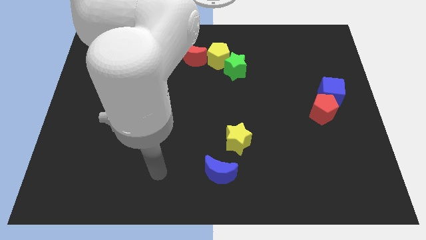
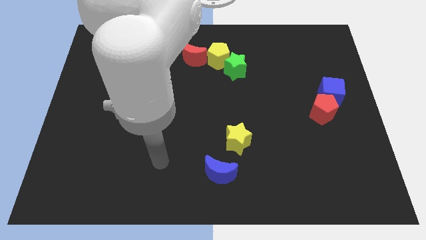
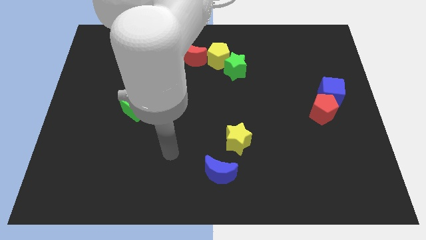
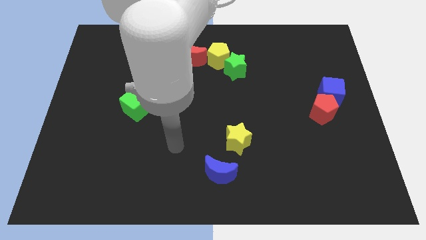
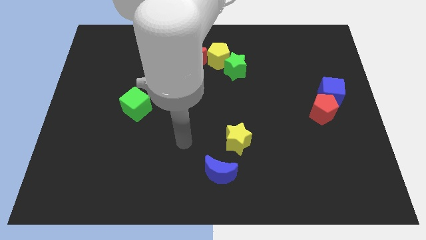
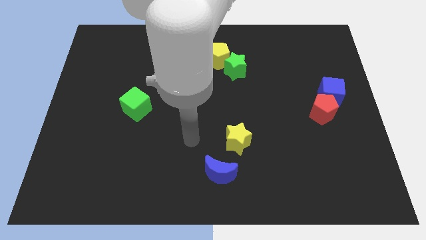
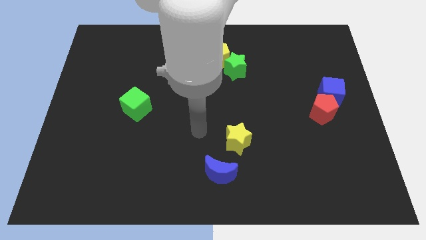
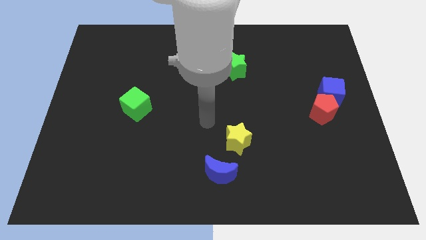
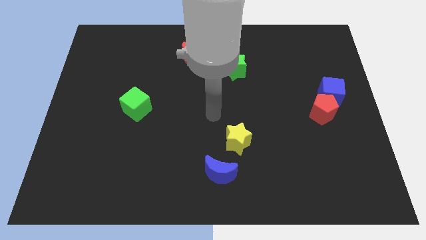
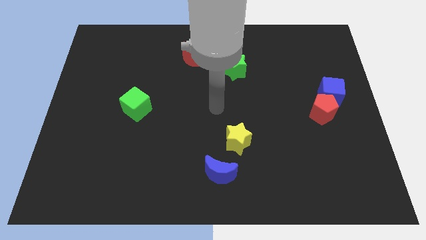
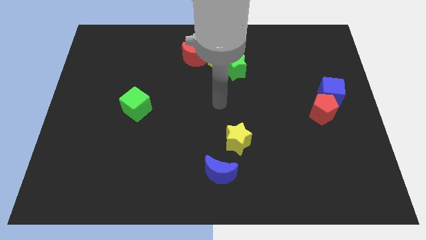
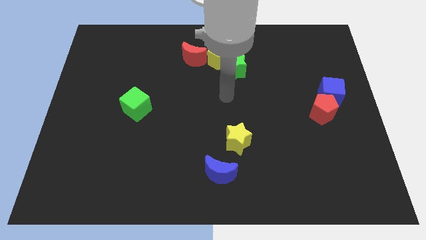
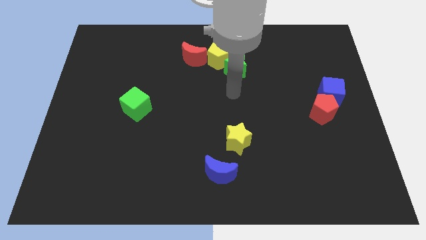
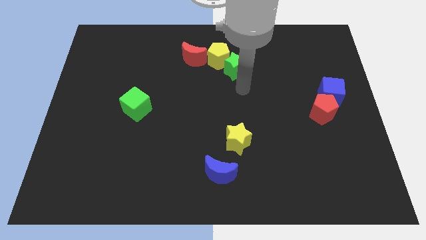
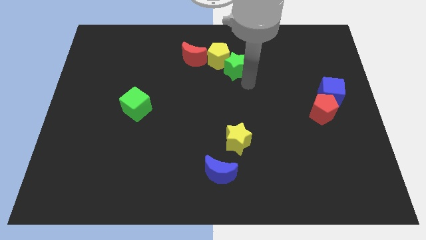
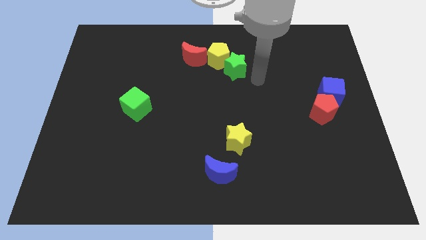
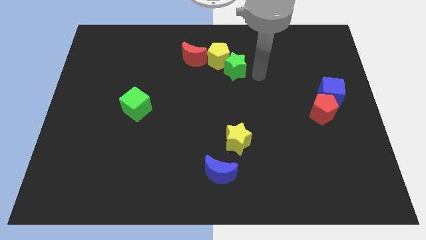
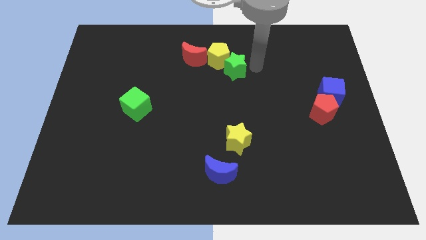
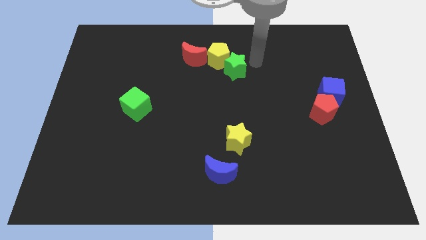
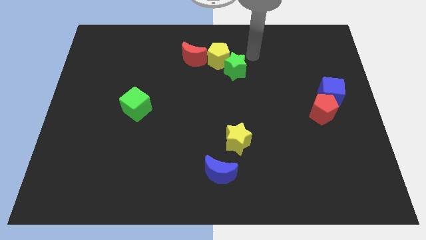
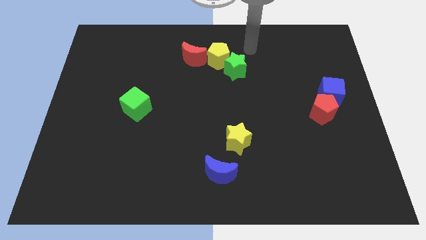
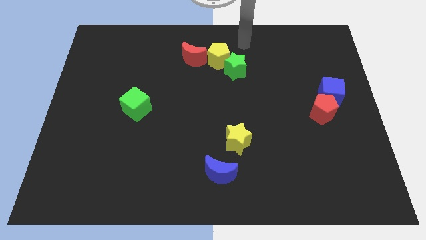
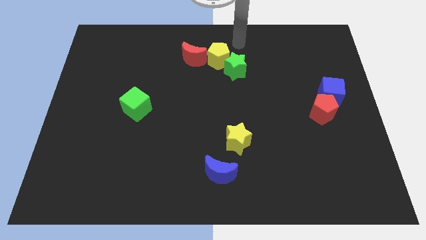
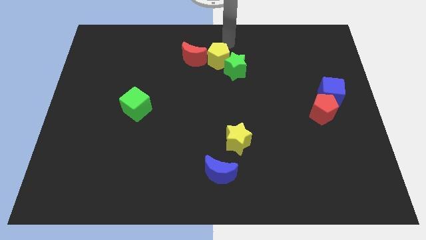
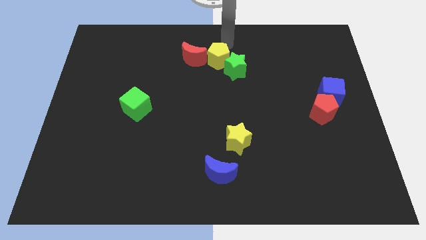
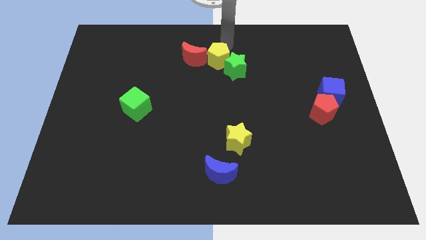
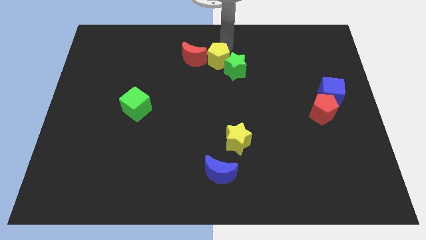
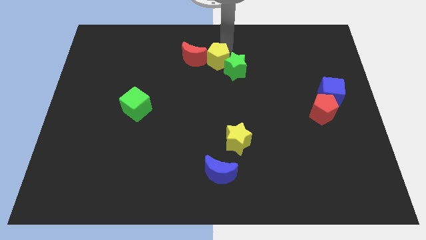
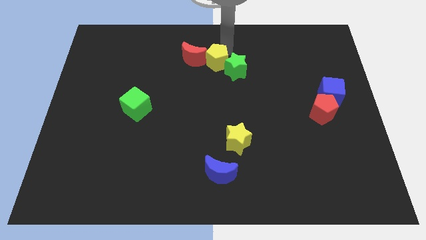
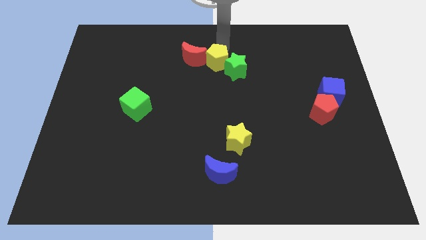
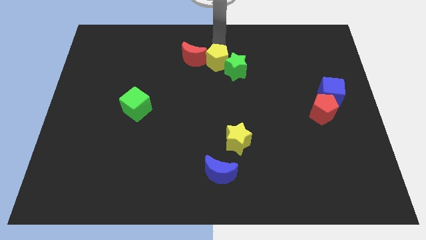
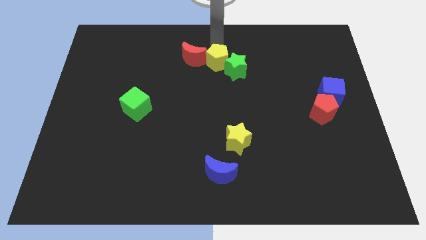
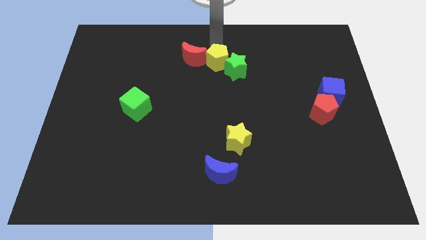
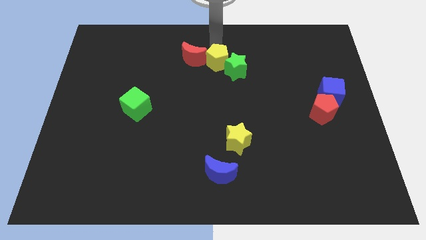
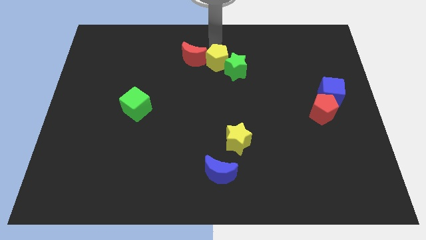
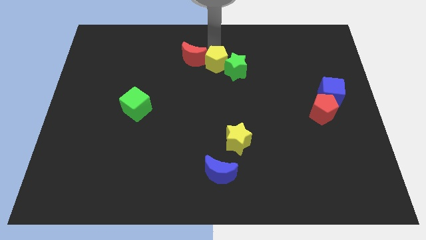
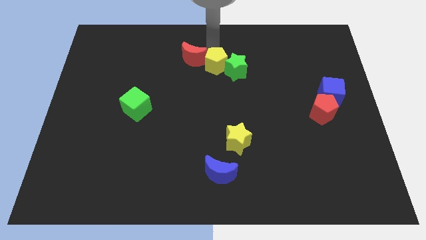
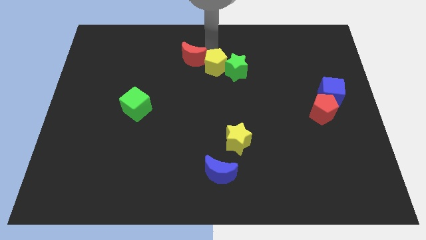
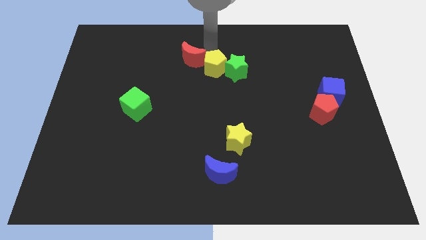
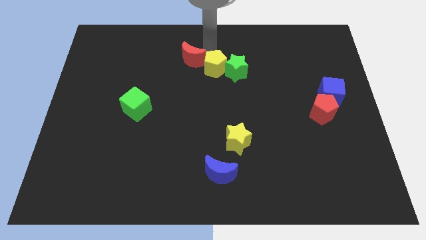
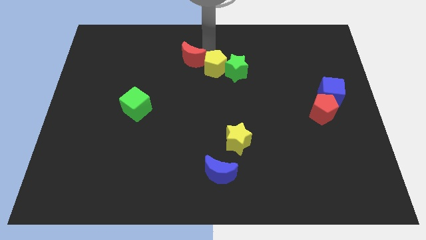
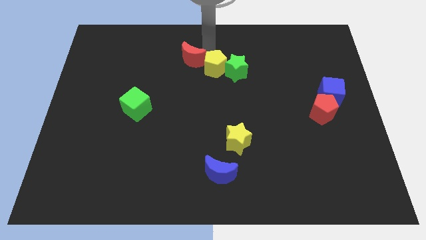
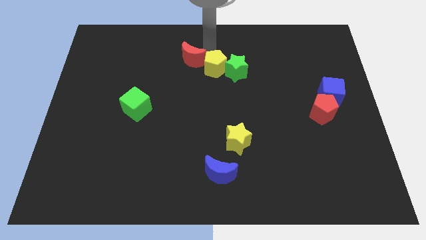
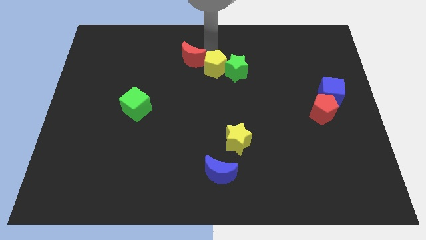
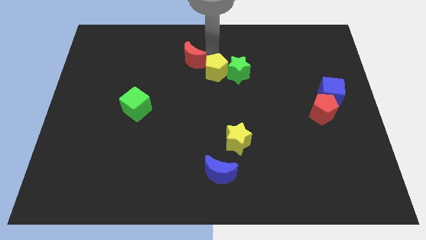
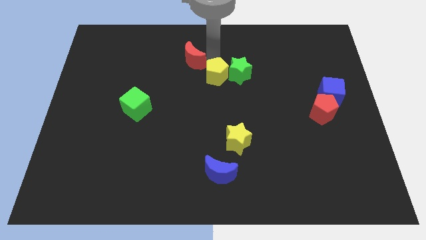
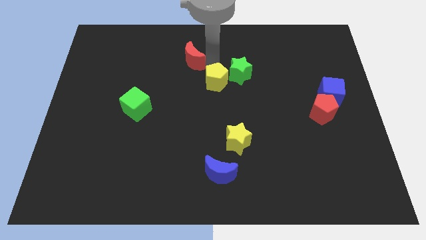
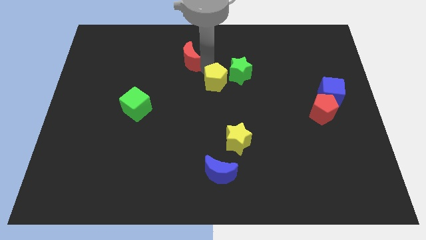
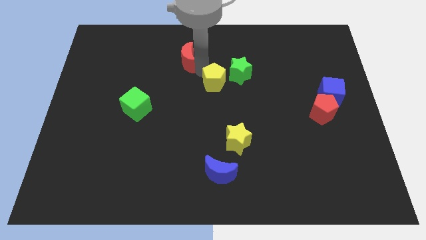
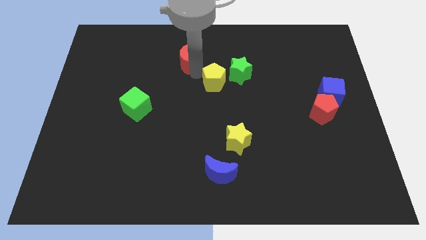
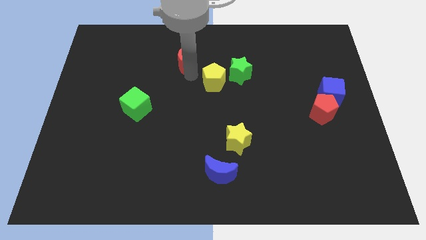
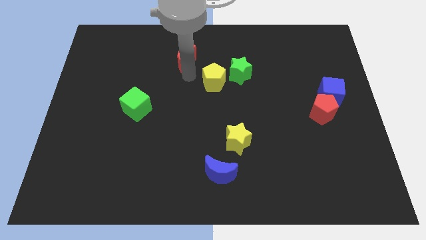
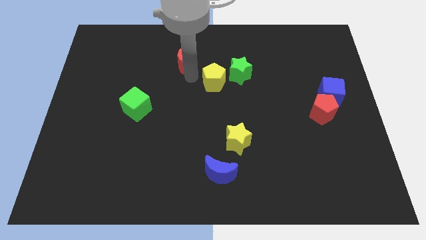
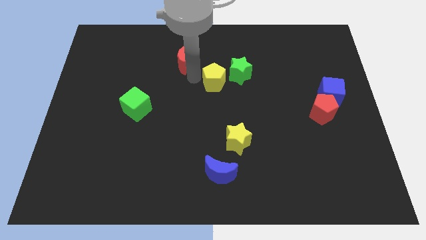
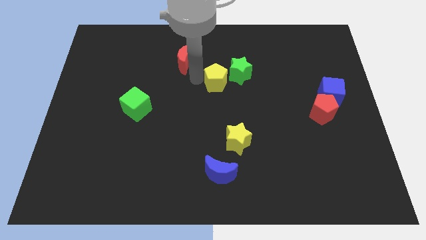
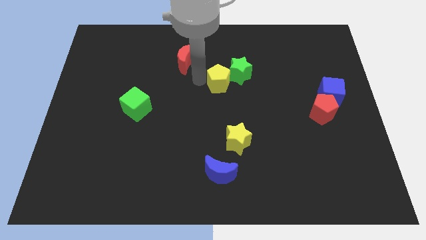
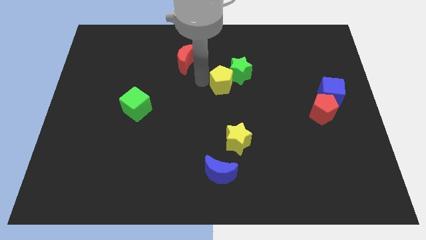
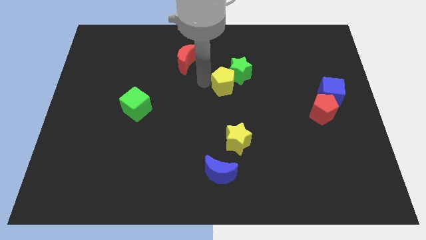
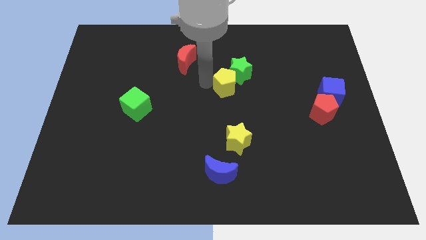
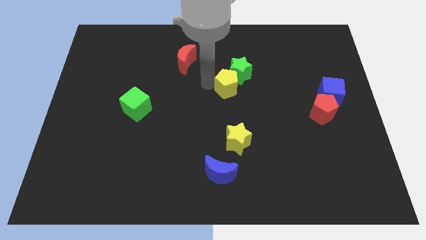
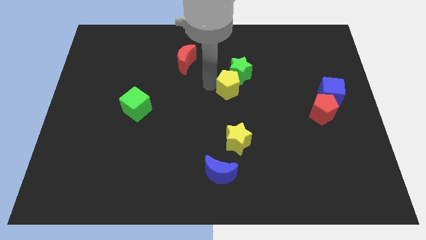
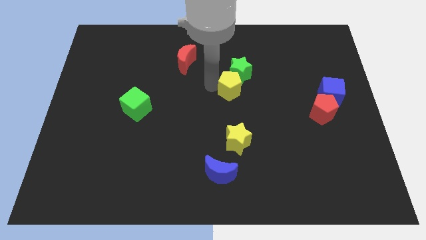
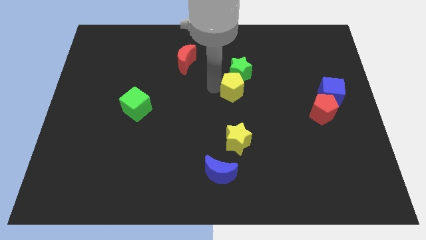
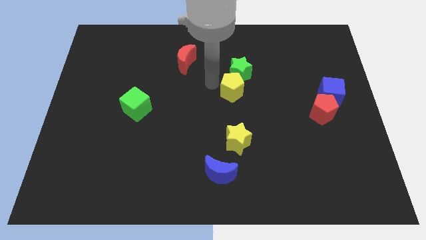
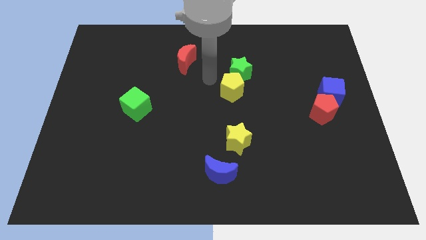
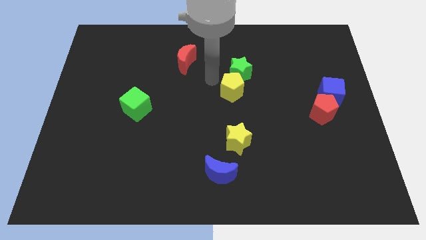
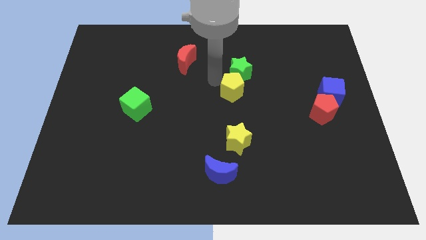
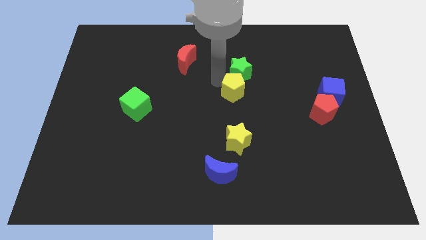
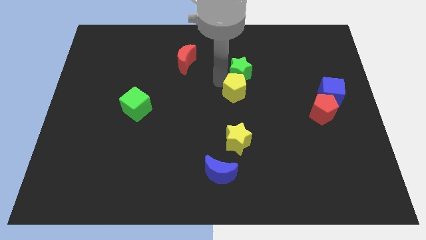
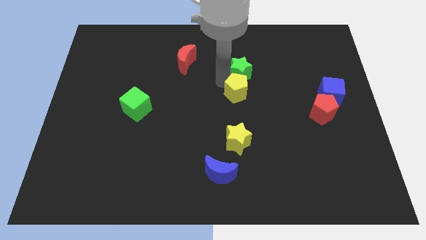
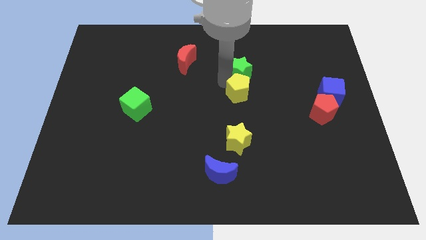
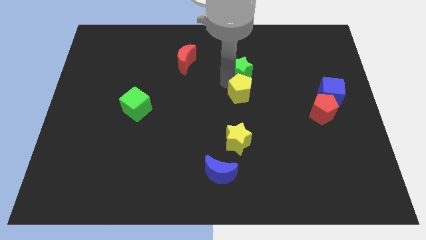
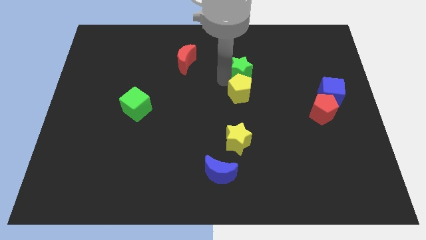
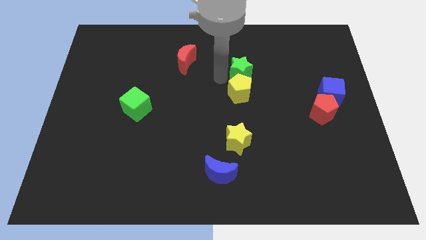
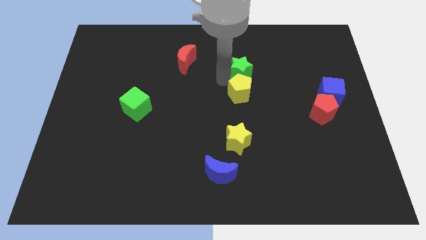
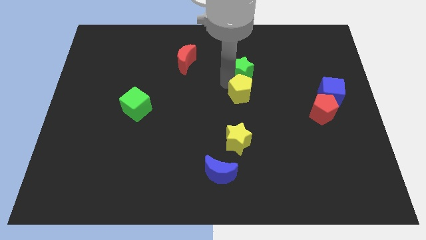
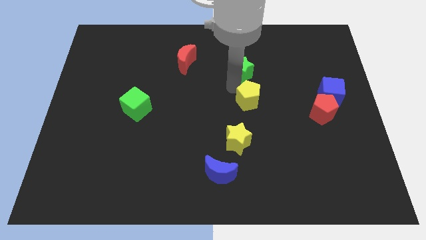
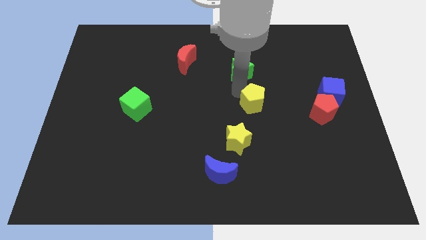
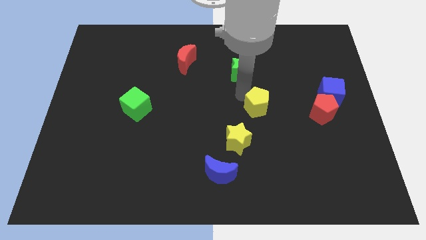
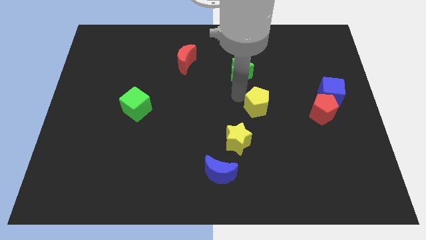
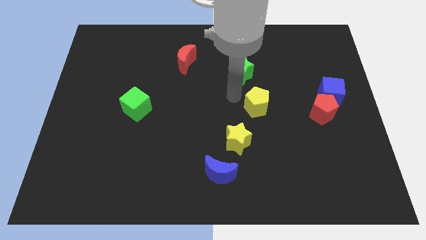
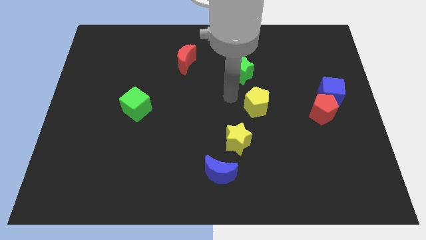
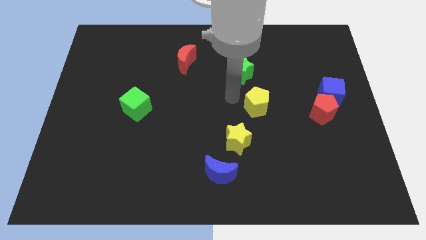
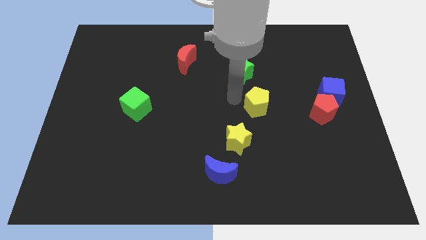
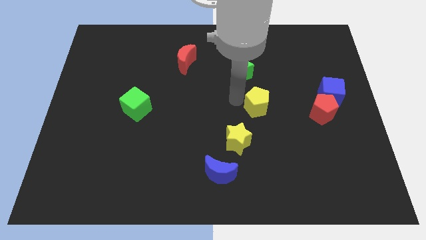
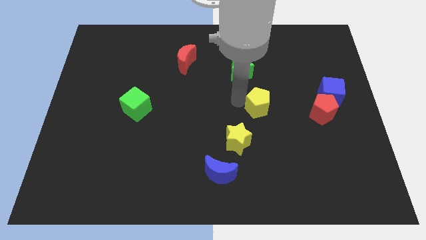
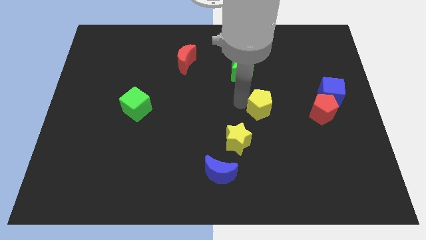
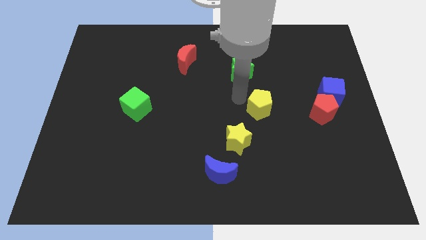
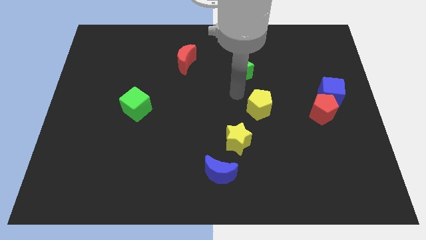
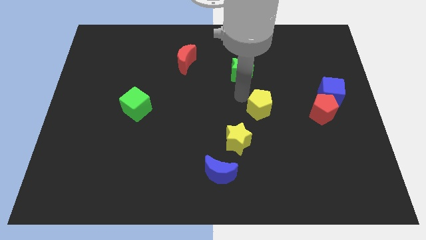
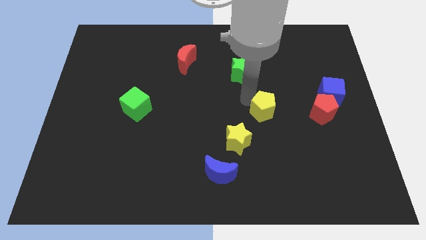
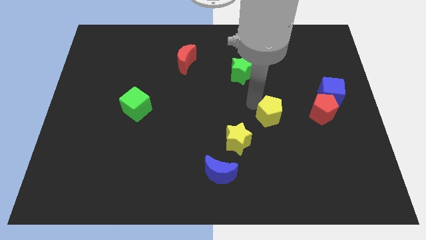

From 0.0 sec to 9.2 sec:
slide the yellow pentagon downwards and then right
